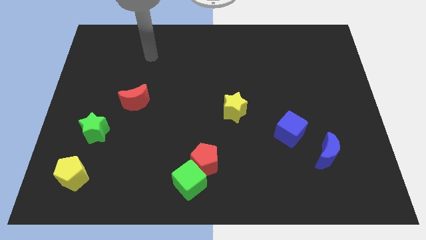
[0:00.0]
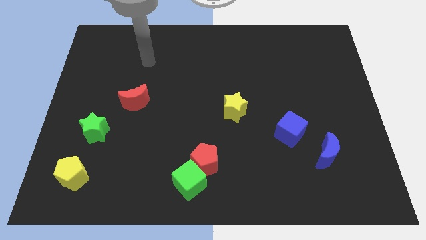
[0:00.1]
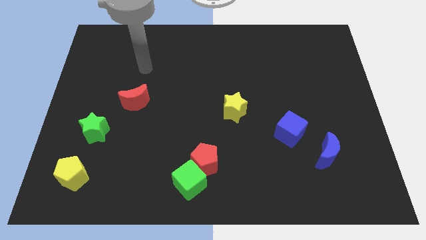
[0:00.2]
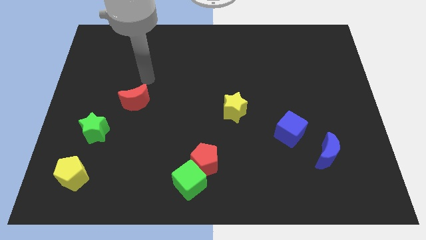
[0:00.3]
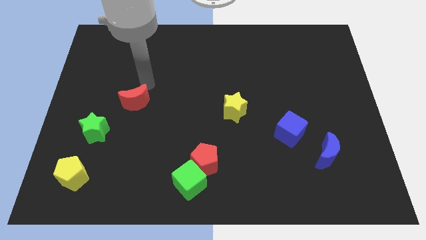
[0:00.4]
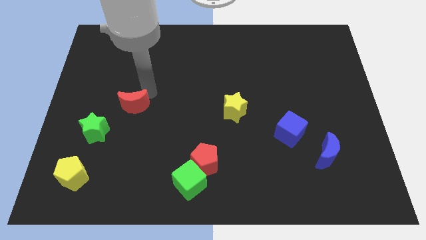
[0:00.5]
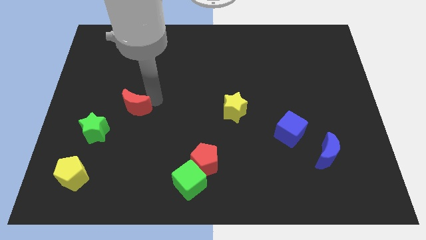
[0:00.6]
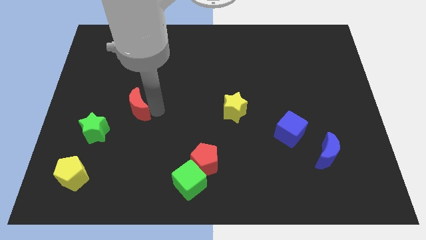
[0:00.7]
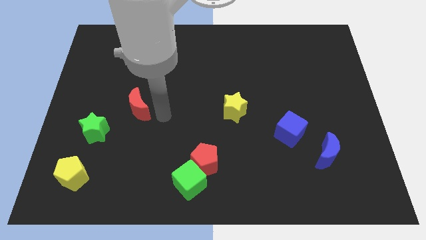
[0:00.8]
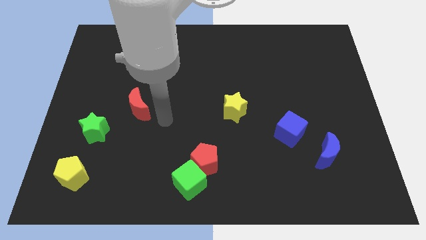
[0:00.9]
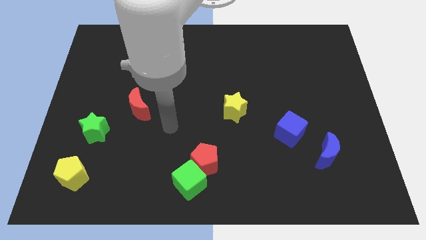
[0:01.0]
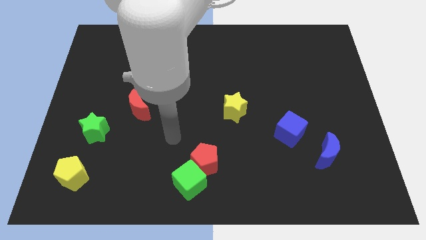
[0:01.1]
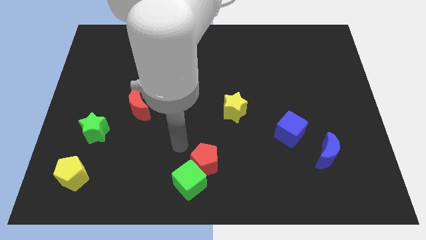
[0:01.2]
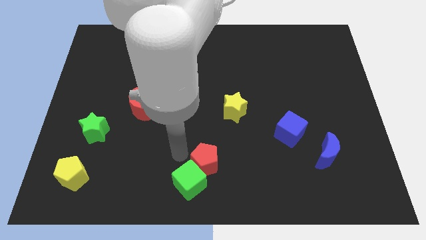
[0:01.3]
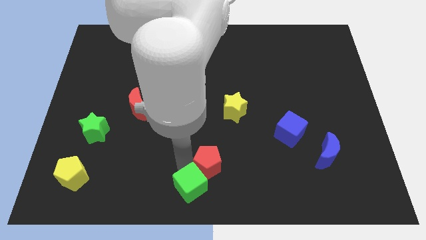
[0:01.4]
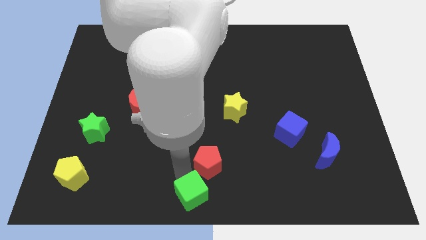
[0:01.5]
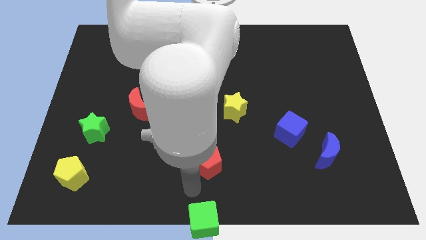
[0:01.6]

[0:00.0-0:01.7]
separate the red pentagon from the green cube

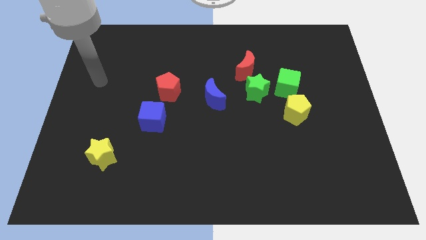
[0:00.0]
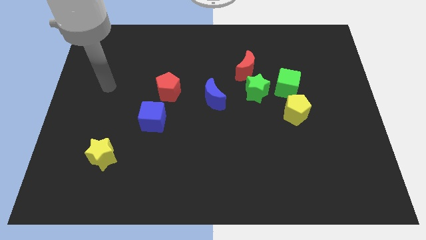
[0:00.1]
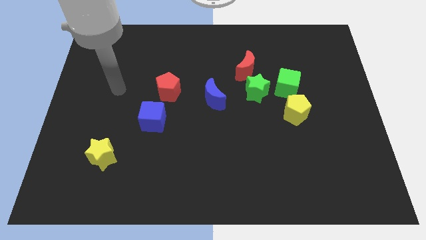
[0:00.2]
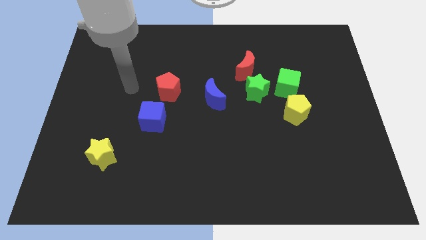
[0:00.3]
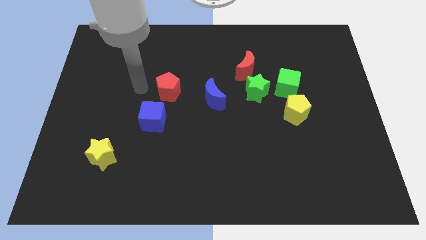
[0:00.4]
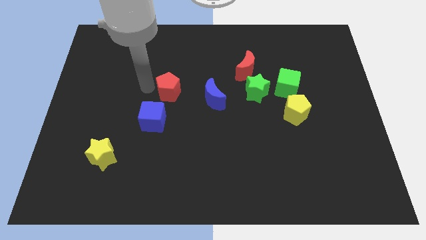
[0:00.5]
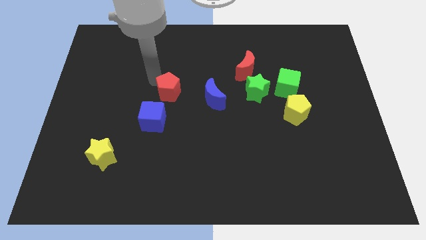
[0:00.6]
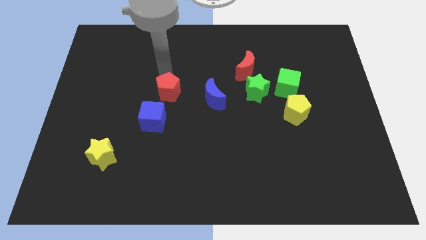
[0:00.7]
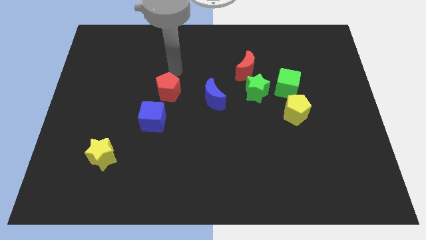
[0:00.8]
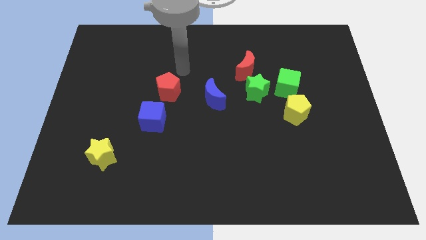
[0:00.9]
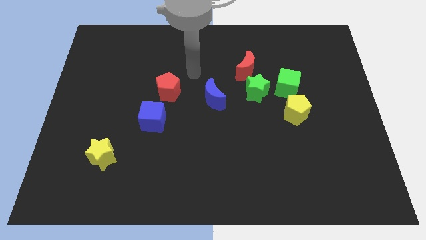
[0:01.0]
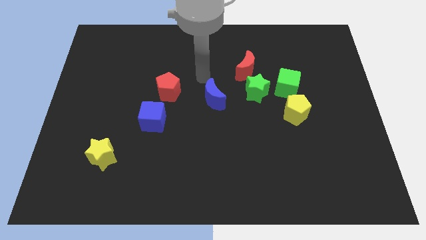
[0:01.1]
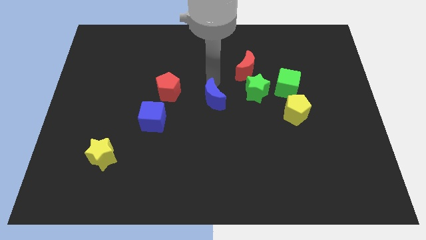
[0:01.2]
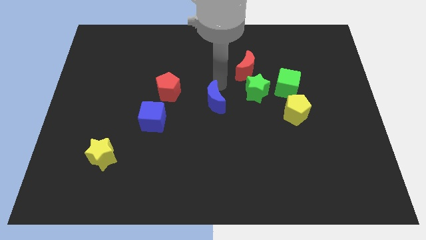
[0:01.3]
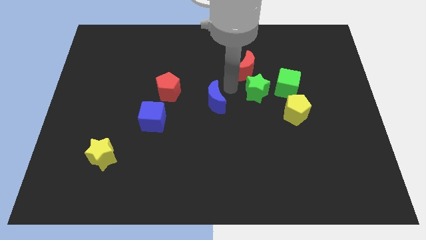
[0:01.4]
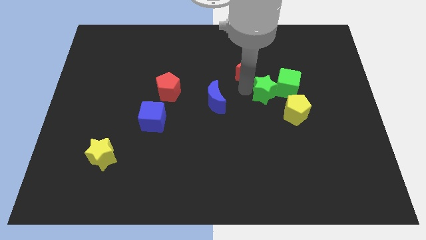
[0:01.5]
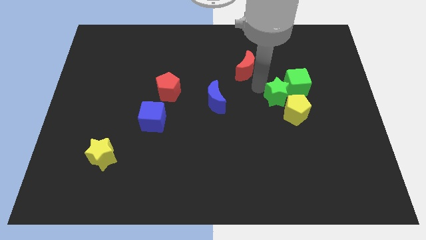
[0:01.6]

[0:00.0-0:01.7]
pull the red moon apart from the green star

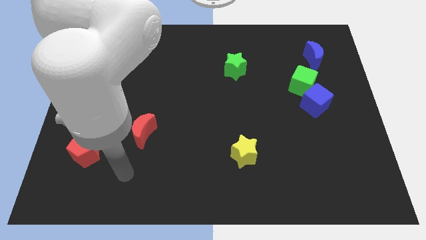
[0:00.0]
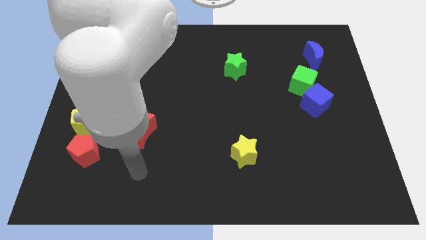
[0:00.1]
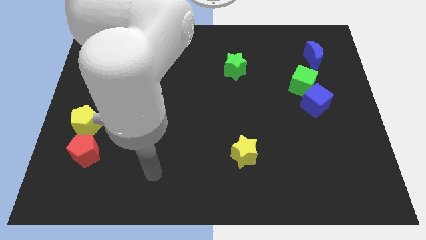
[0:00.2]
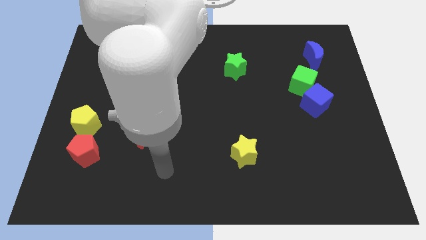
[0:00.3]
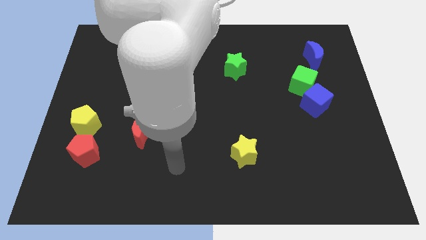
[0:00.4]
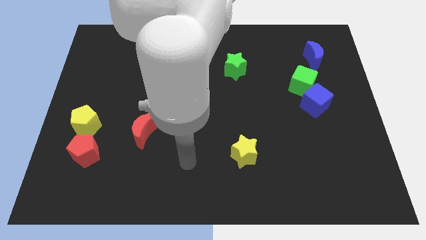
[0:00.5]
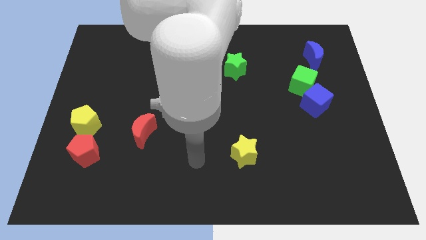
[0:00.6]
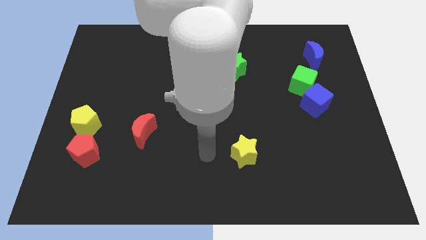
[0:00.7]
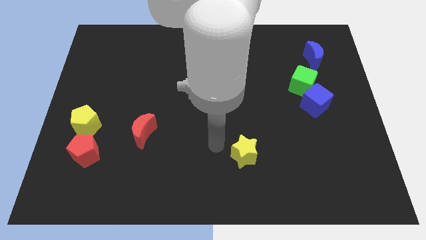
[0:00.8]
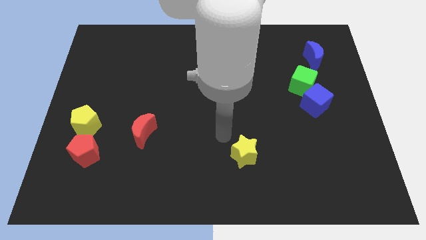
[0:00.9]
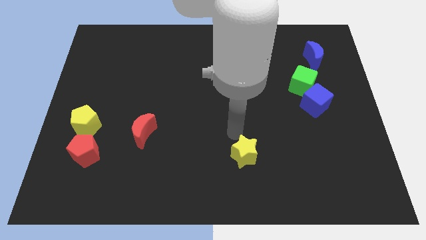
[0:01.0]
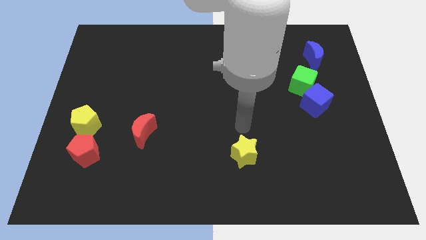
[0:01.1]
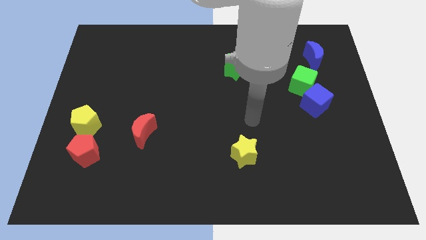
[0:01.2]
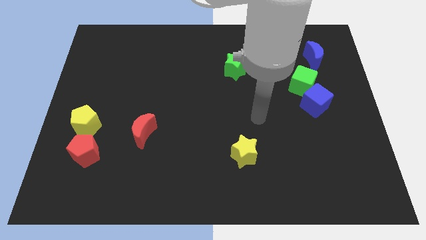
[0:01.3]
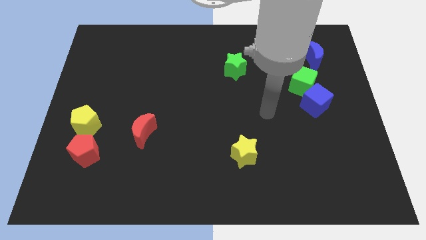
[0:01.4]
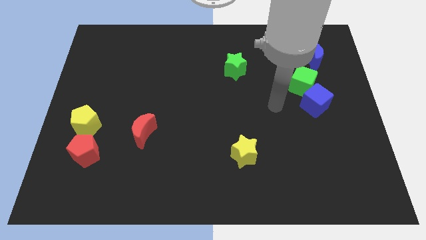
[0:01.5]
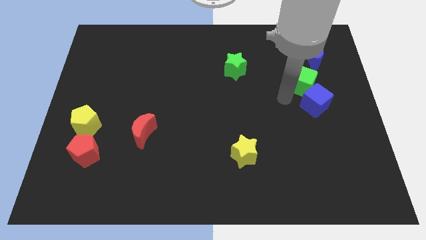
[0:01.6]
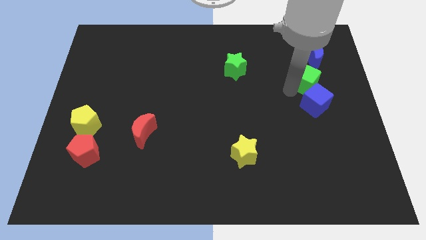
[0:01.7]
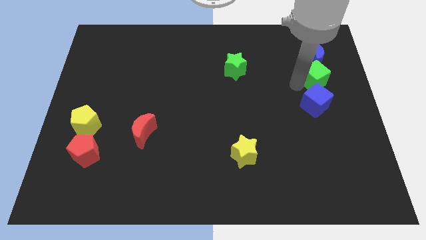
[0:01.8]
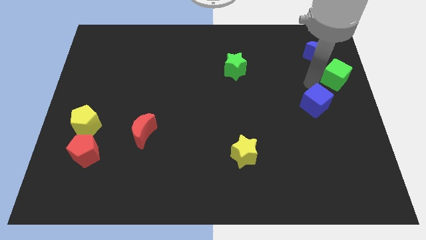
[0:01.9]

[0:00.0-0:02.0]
separate the blue cube from the green cube

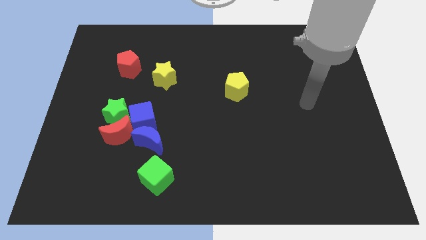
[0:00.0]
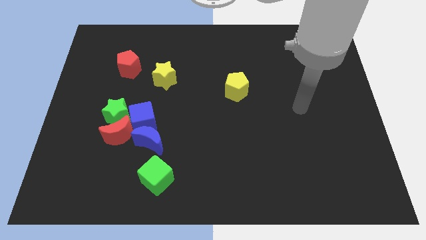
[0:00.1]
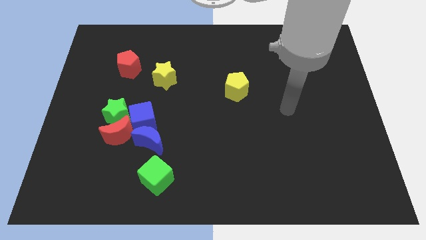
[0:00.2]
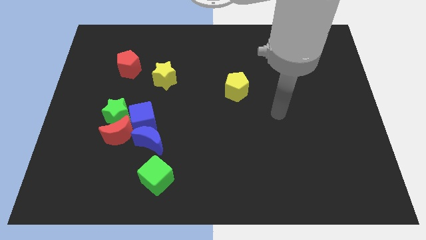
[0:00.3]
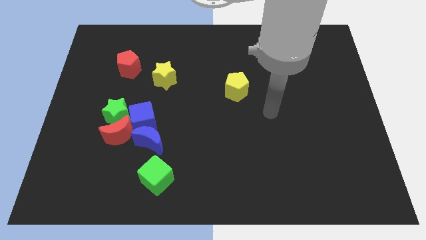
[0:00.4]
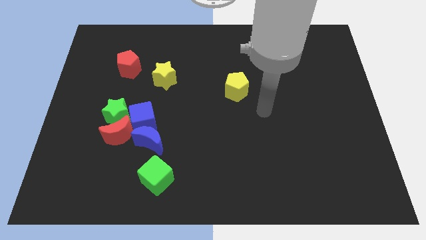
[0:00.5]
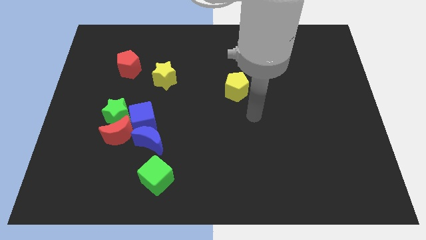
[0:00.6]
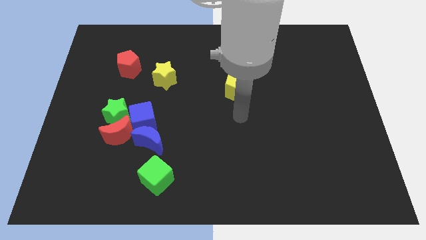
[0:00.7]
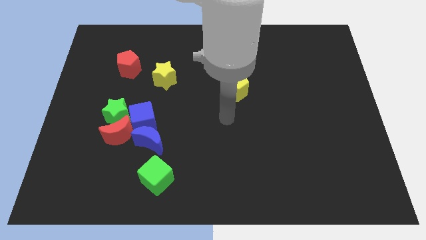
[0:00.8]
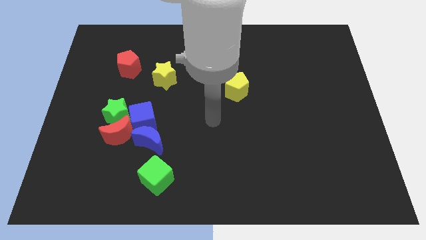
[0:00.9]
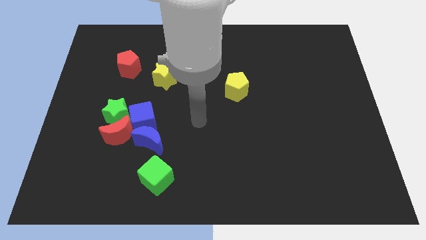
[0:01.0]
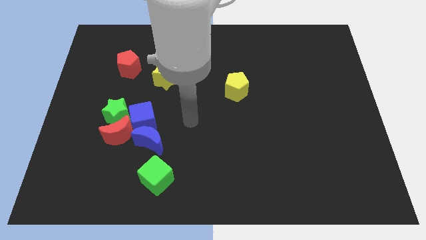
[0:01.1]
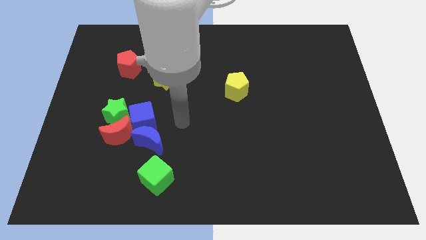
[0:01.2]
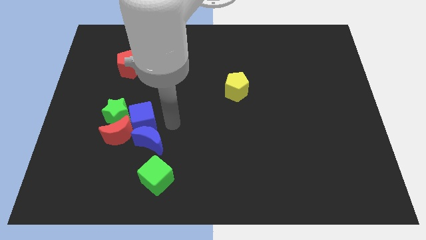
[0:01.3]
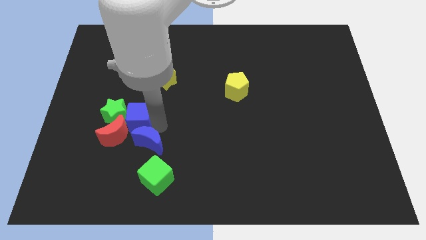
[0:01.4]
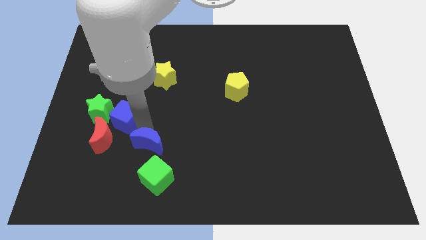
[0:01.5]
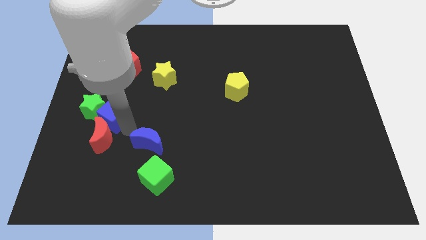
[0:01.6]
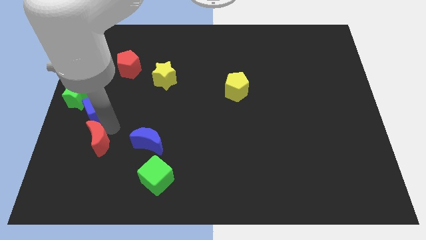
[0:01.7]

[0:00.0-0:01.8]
pull the green star apart from the red moon and blue cube

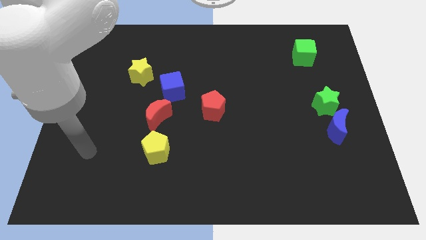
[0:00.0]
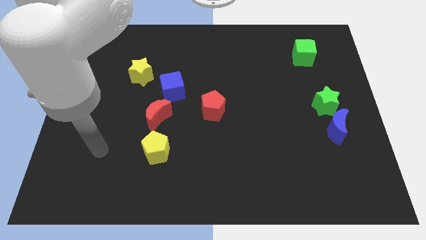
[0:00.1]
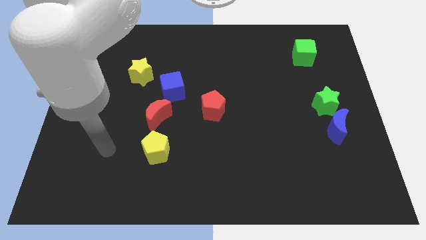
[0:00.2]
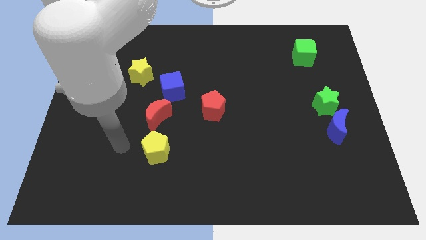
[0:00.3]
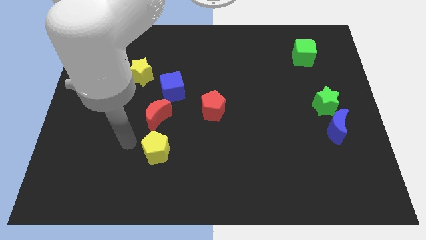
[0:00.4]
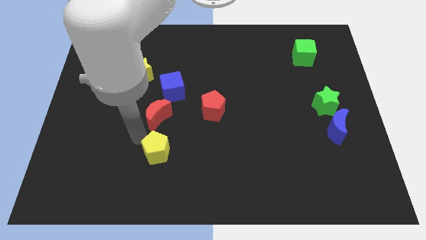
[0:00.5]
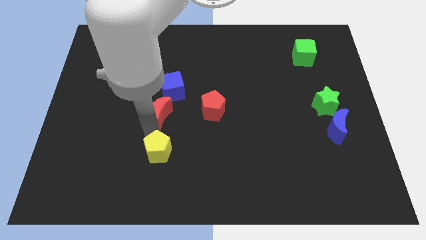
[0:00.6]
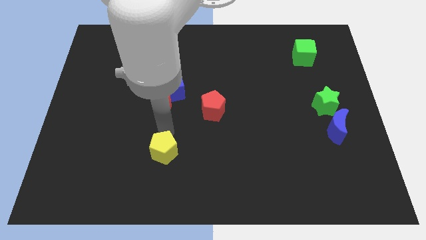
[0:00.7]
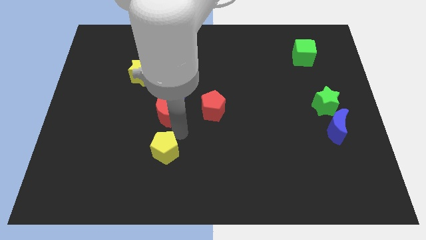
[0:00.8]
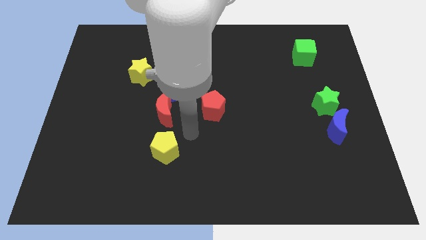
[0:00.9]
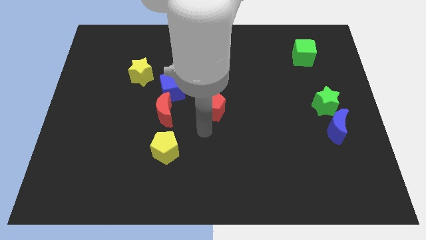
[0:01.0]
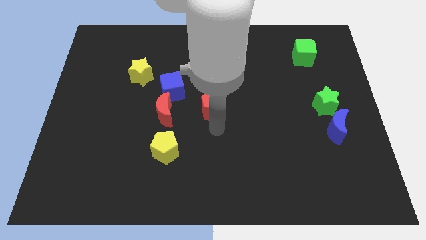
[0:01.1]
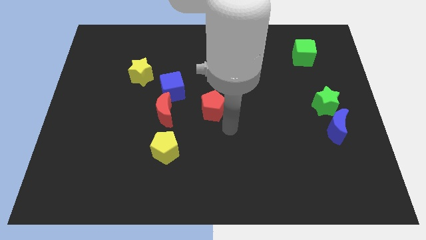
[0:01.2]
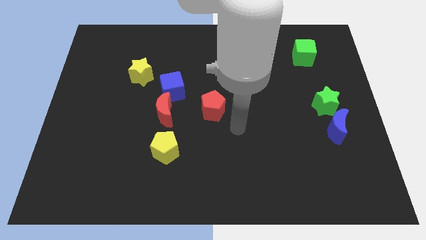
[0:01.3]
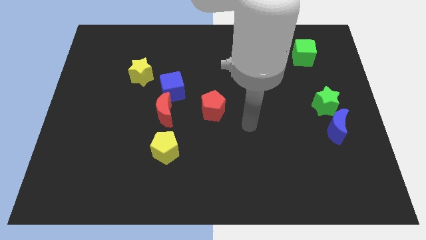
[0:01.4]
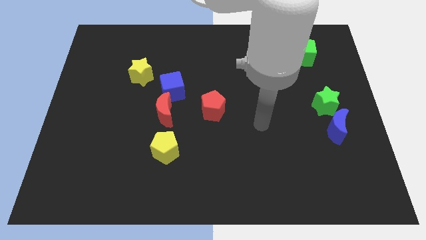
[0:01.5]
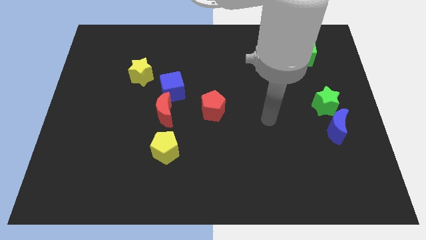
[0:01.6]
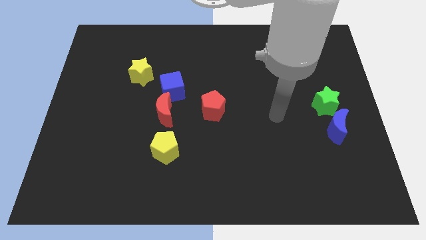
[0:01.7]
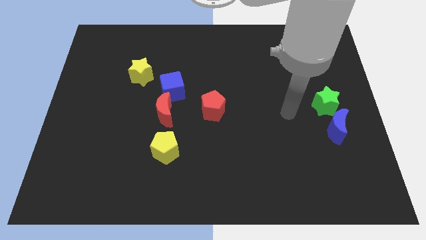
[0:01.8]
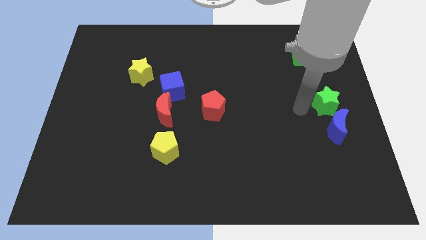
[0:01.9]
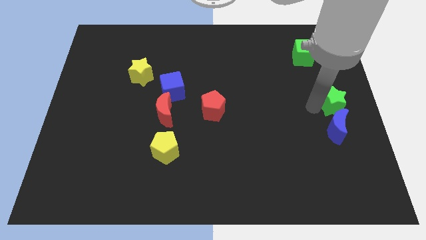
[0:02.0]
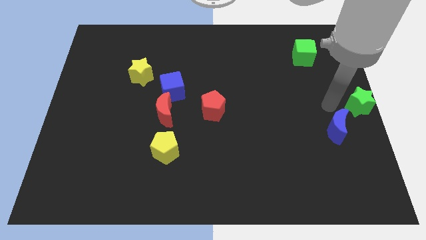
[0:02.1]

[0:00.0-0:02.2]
pull the blue moon apart from the green star

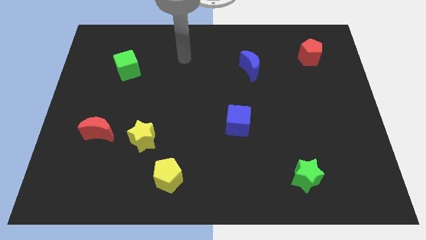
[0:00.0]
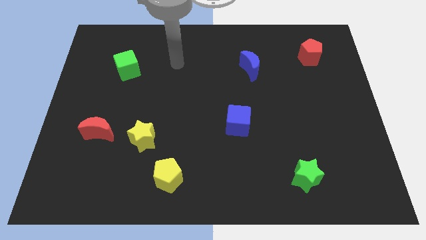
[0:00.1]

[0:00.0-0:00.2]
separate the red moon from the yellow star
